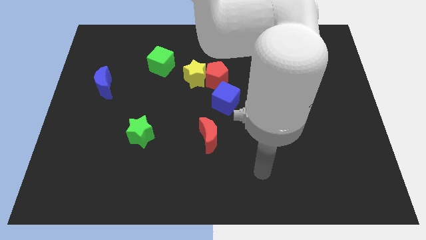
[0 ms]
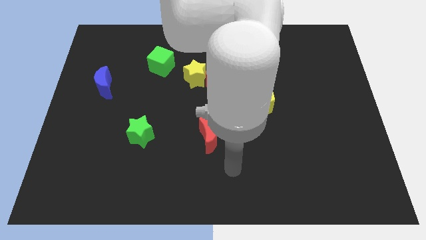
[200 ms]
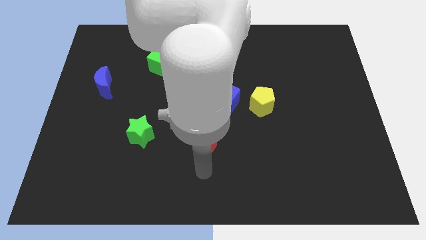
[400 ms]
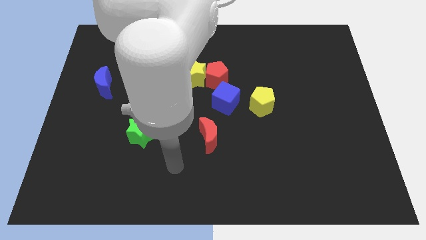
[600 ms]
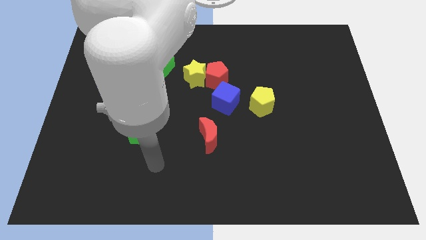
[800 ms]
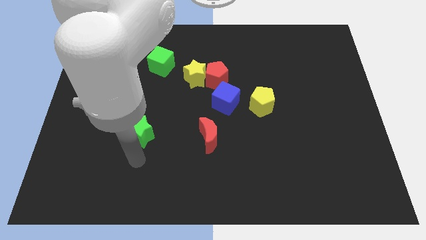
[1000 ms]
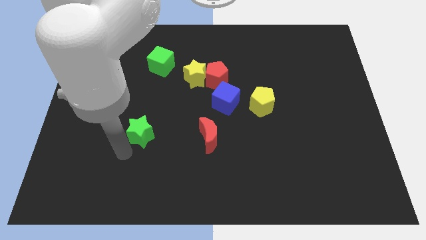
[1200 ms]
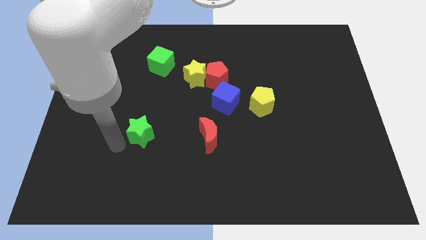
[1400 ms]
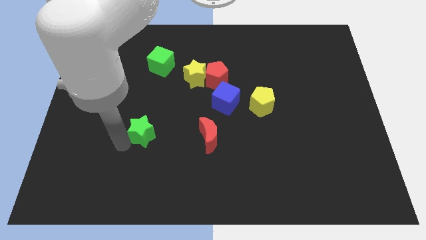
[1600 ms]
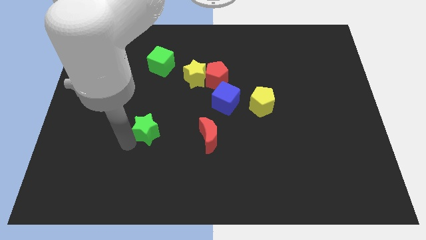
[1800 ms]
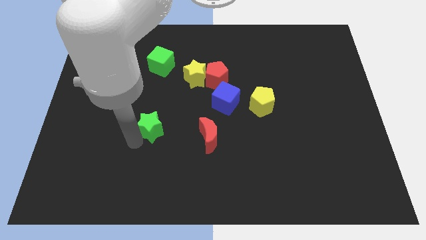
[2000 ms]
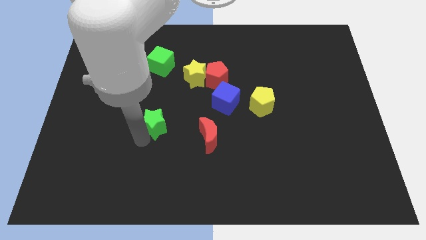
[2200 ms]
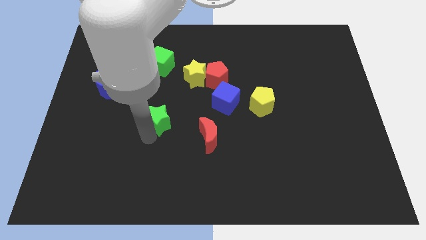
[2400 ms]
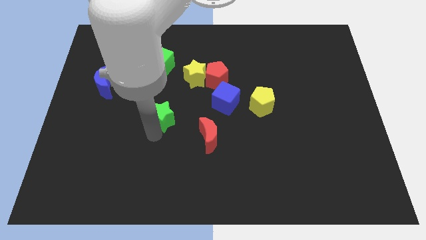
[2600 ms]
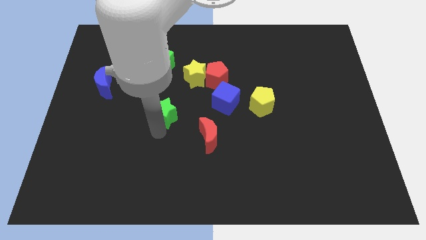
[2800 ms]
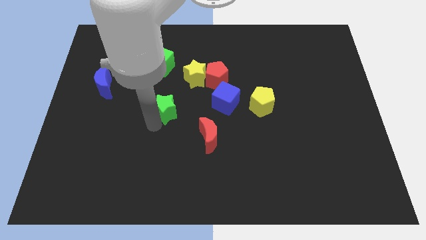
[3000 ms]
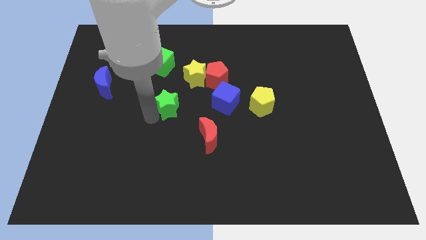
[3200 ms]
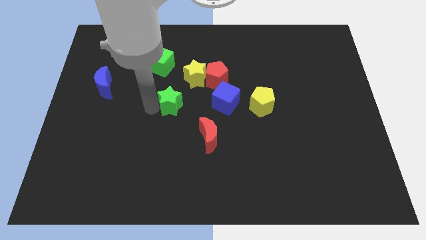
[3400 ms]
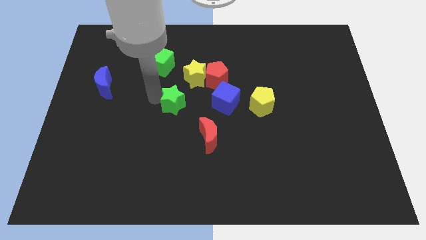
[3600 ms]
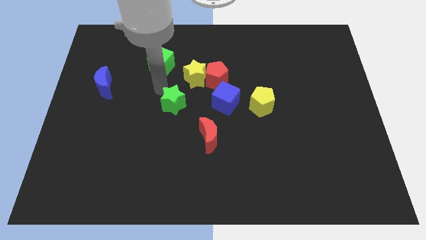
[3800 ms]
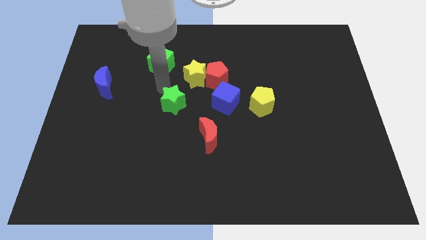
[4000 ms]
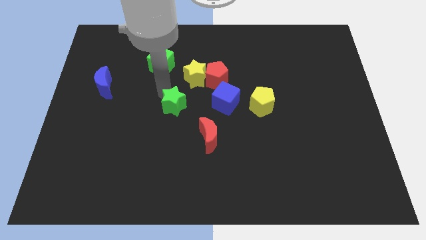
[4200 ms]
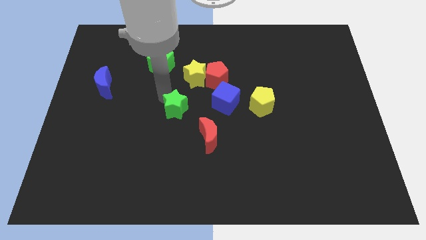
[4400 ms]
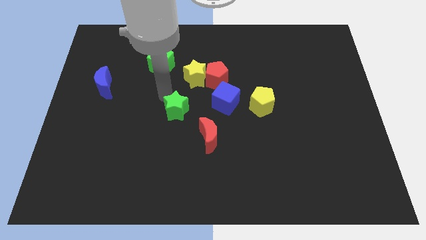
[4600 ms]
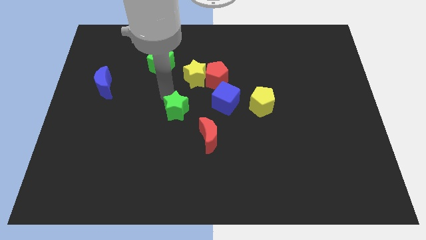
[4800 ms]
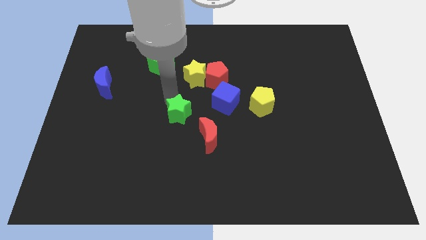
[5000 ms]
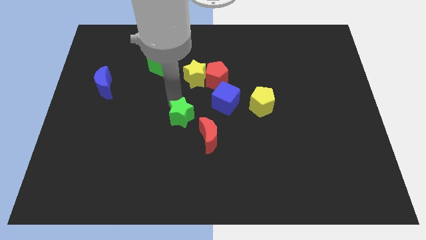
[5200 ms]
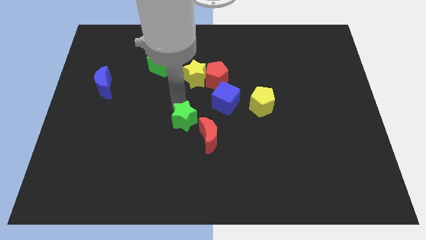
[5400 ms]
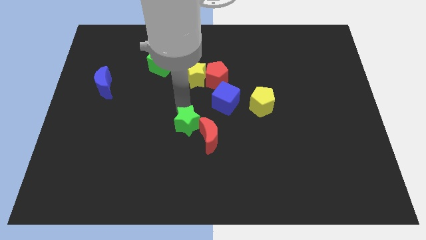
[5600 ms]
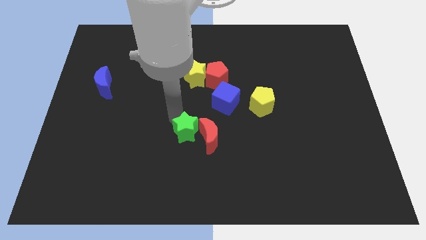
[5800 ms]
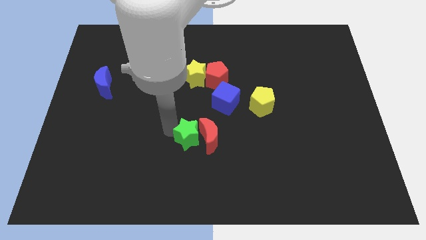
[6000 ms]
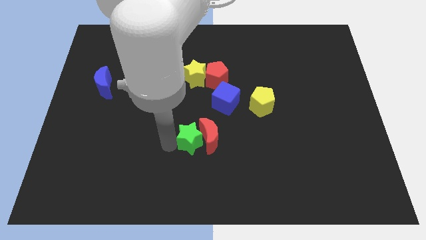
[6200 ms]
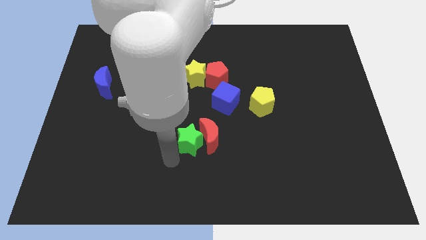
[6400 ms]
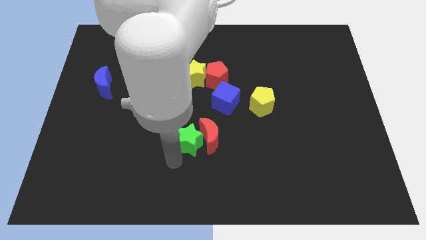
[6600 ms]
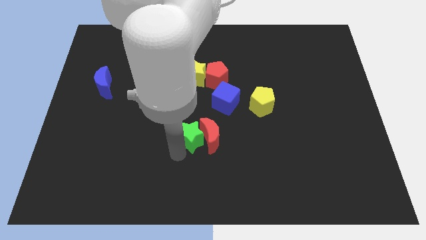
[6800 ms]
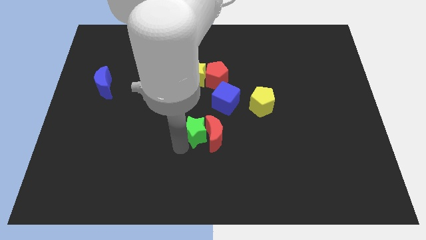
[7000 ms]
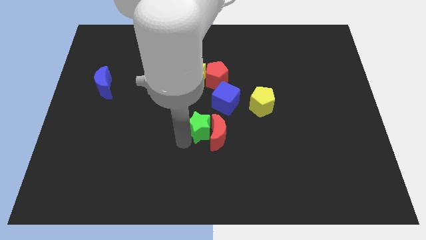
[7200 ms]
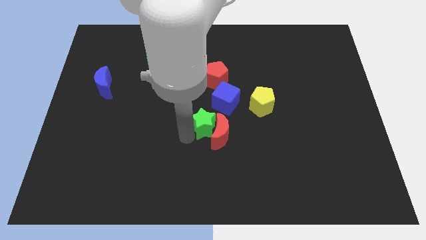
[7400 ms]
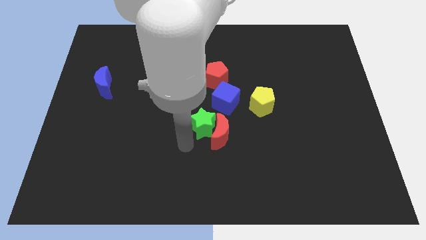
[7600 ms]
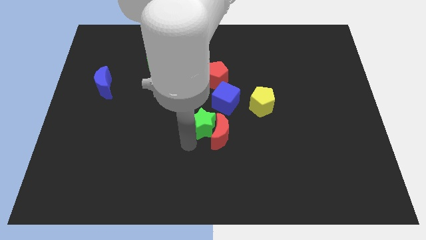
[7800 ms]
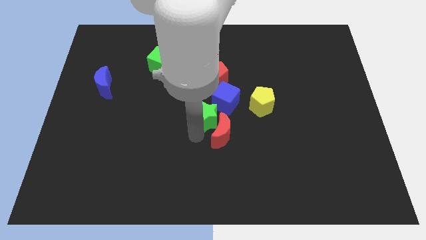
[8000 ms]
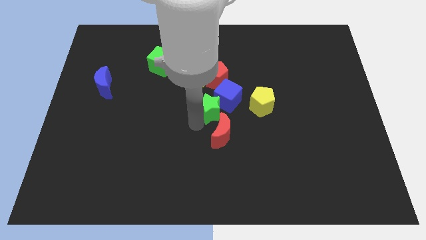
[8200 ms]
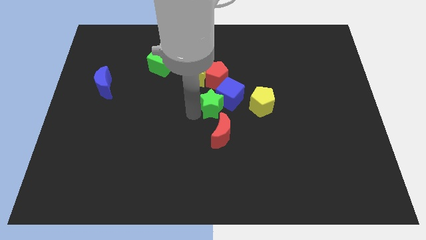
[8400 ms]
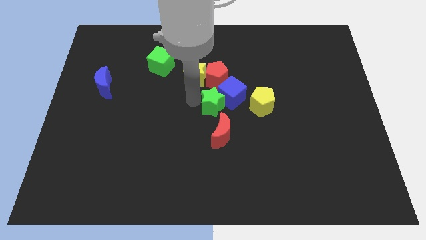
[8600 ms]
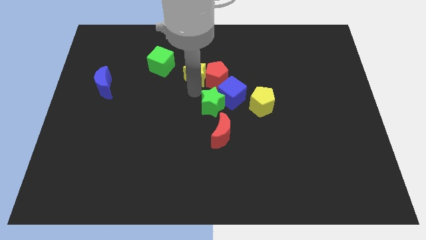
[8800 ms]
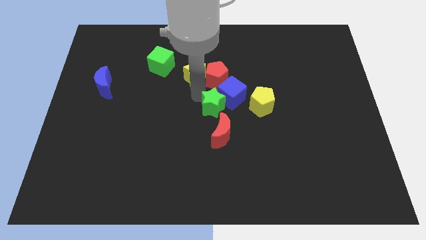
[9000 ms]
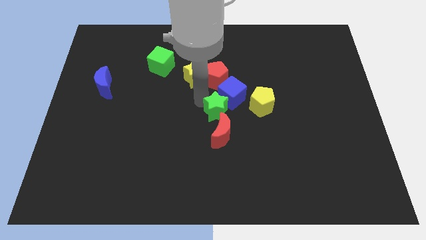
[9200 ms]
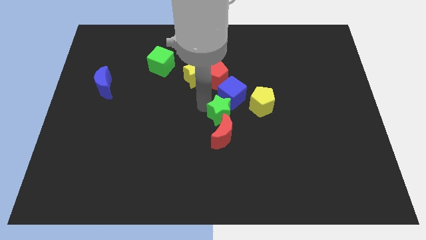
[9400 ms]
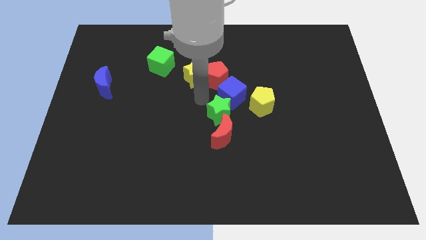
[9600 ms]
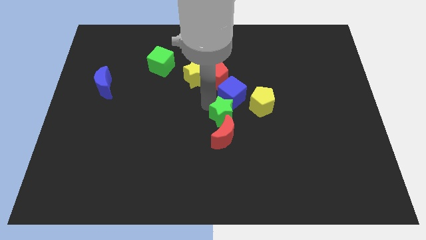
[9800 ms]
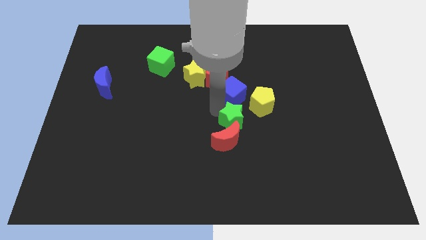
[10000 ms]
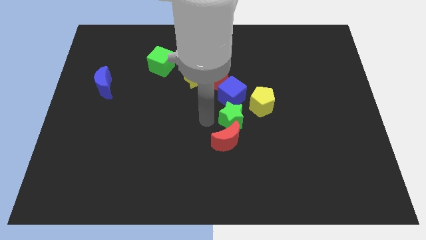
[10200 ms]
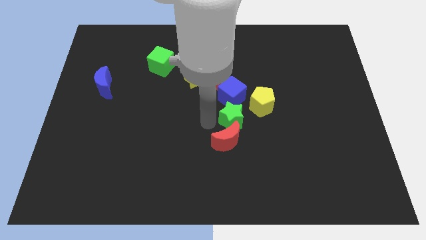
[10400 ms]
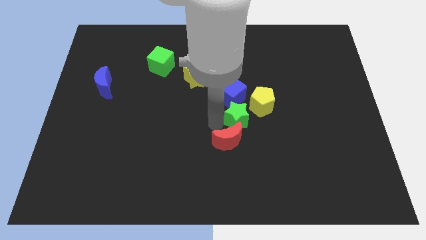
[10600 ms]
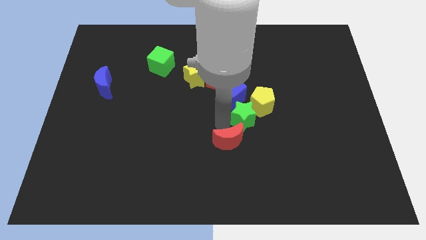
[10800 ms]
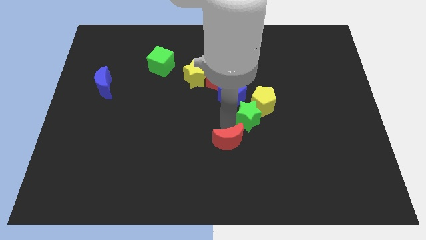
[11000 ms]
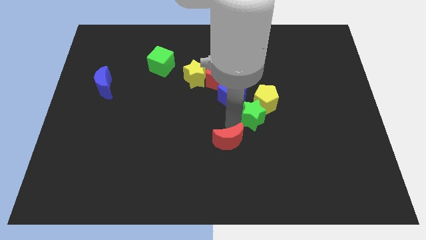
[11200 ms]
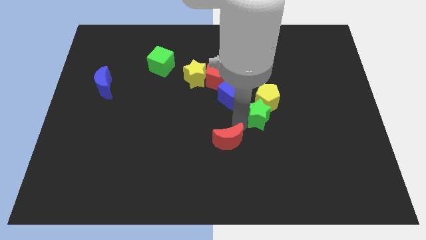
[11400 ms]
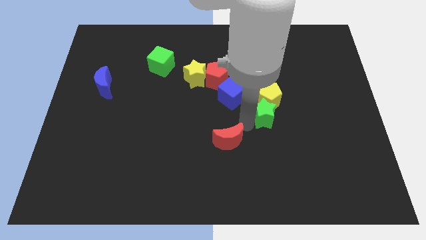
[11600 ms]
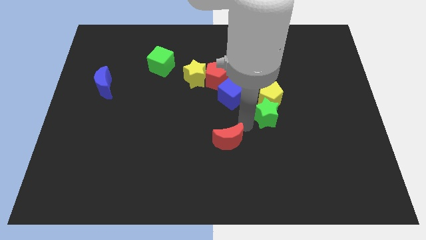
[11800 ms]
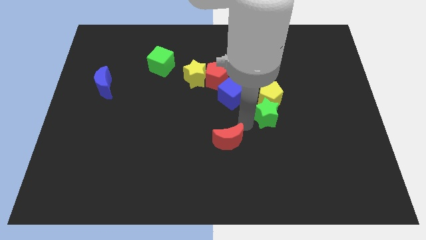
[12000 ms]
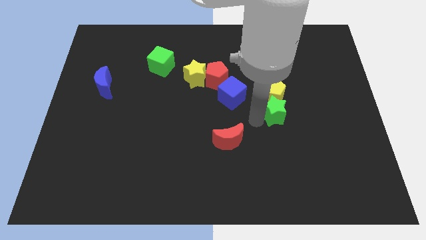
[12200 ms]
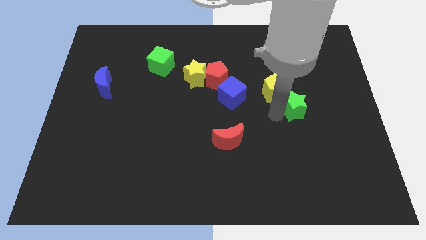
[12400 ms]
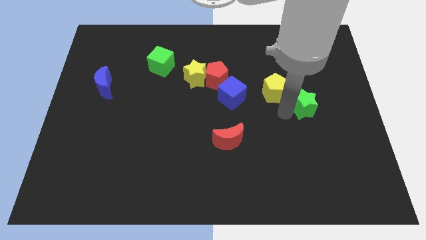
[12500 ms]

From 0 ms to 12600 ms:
move the green star just right of the yellow pentagon
